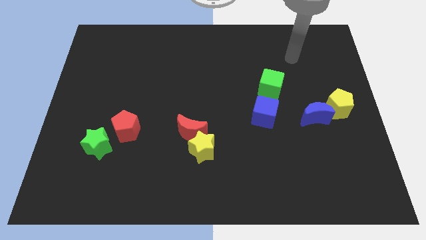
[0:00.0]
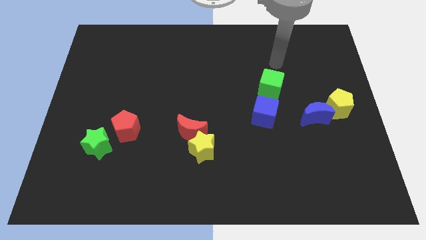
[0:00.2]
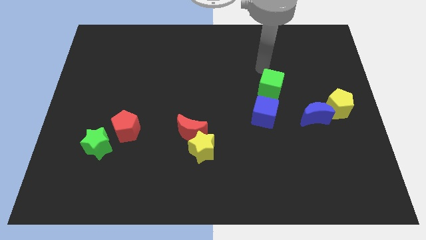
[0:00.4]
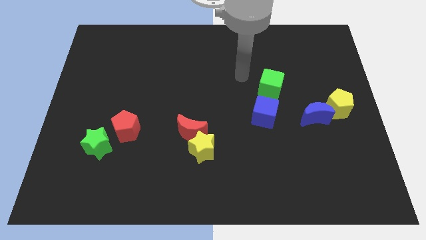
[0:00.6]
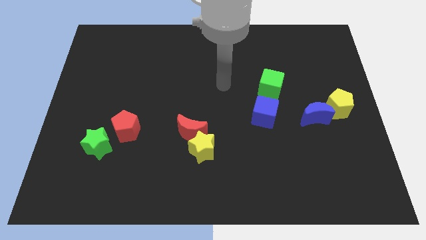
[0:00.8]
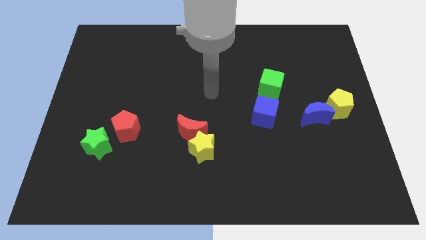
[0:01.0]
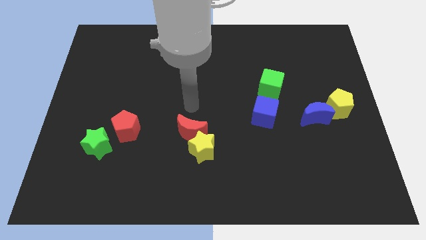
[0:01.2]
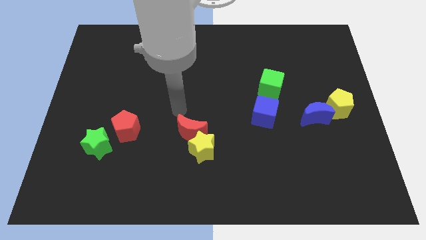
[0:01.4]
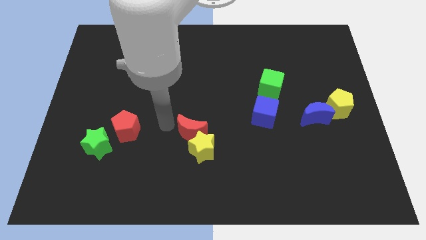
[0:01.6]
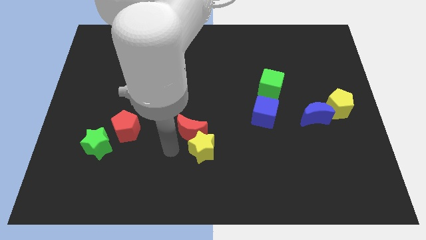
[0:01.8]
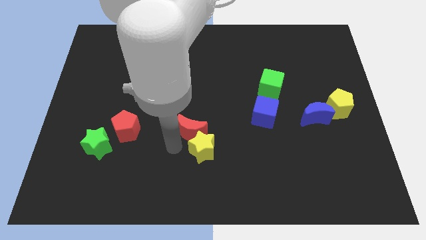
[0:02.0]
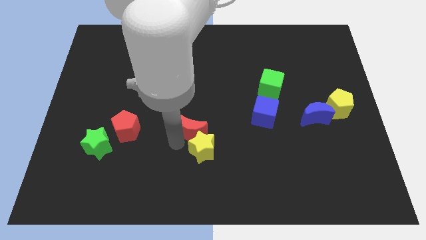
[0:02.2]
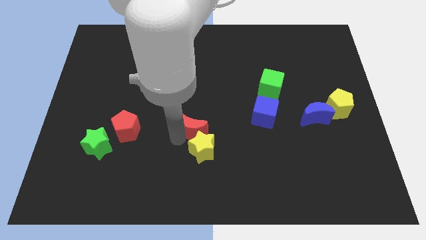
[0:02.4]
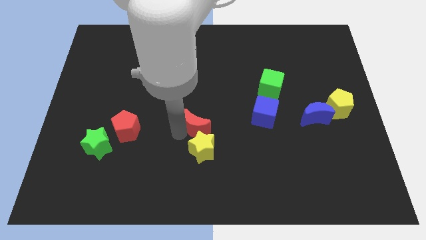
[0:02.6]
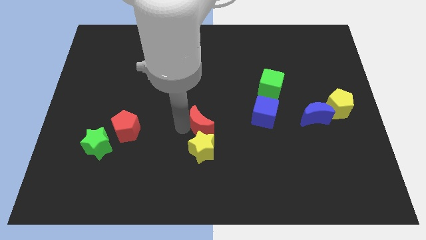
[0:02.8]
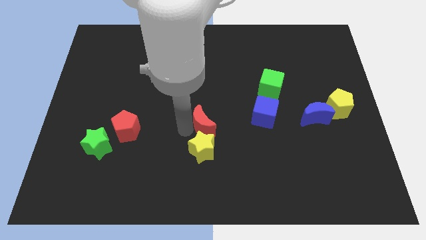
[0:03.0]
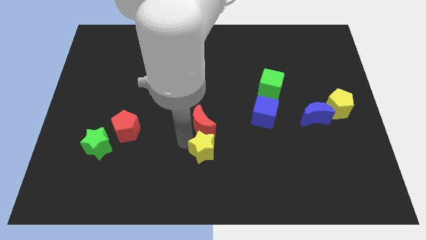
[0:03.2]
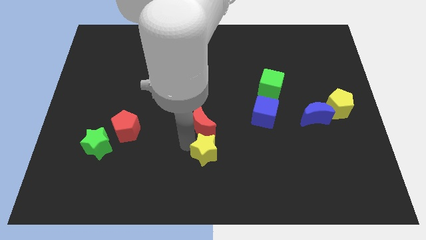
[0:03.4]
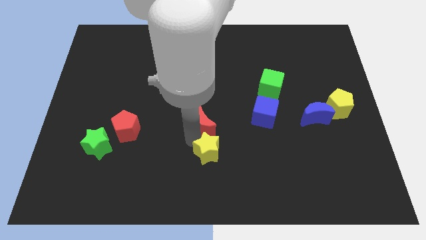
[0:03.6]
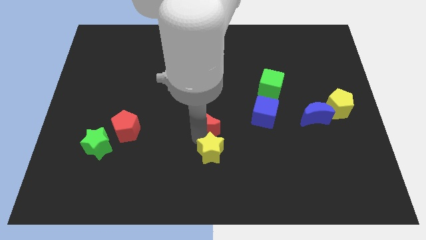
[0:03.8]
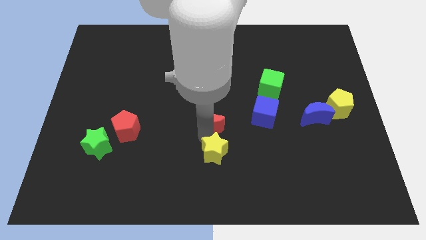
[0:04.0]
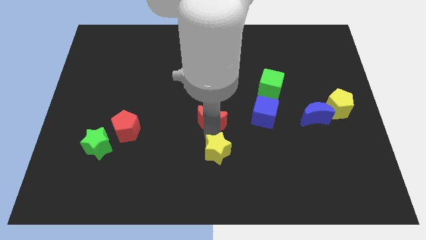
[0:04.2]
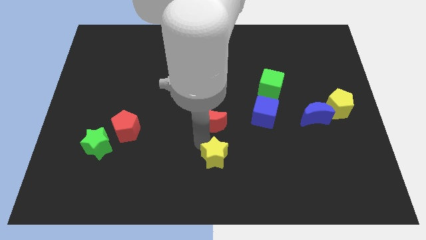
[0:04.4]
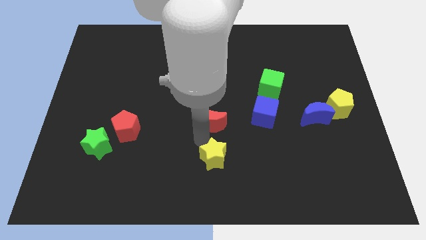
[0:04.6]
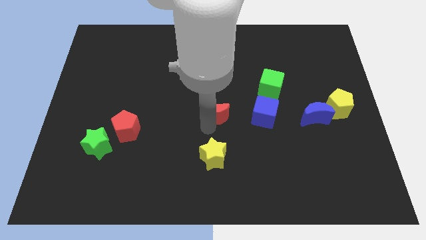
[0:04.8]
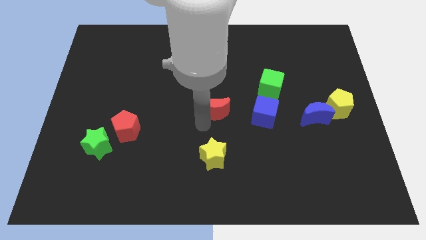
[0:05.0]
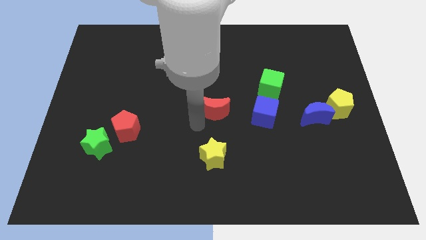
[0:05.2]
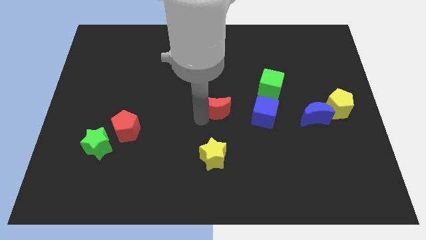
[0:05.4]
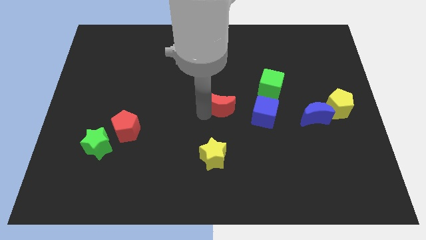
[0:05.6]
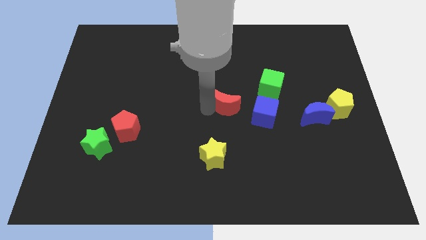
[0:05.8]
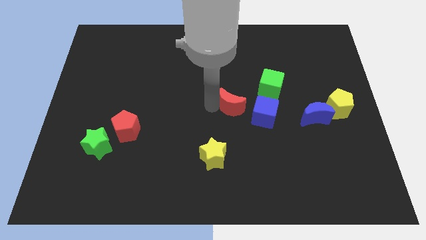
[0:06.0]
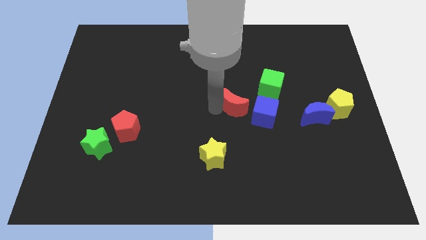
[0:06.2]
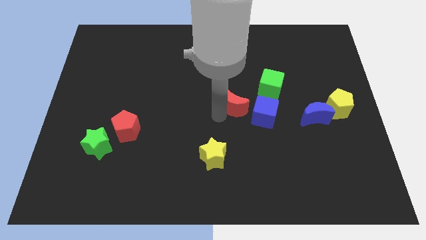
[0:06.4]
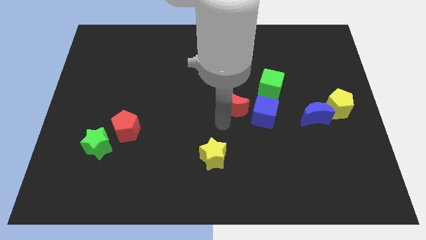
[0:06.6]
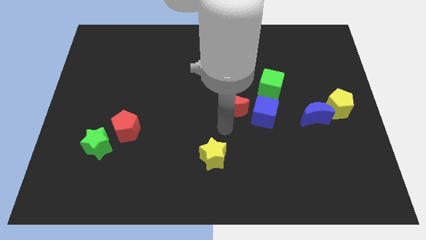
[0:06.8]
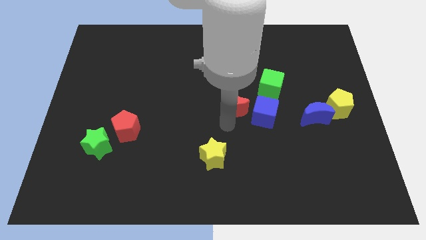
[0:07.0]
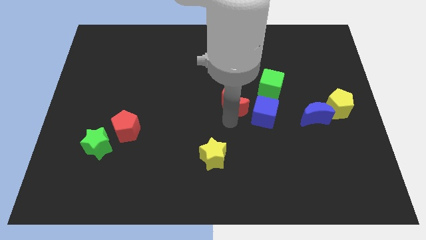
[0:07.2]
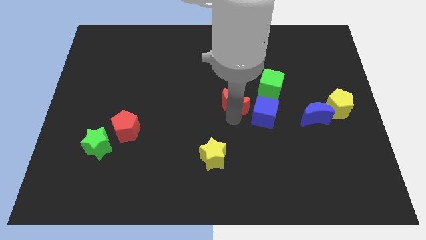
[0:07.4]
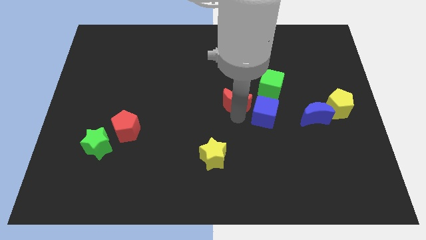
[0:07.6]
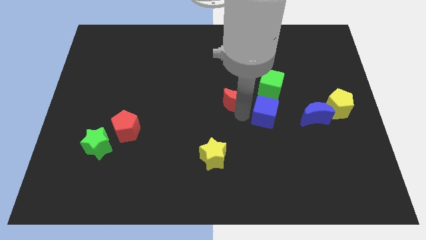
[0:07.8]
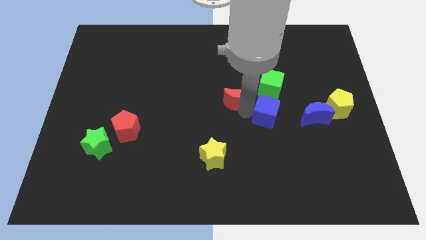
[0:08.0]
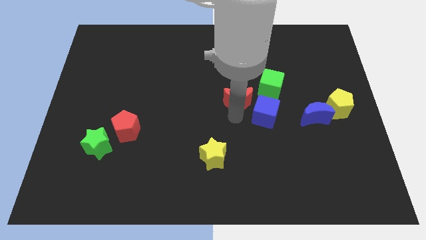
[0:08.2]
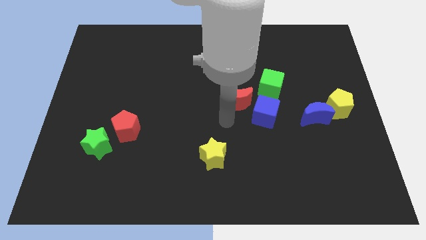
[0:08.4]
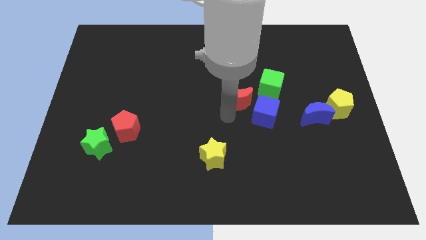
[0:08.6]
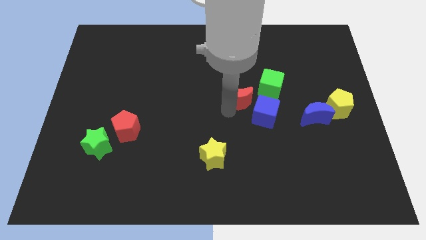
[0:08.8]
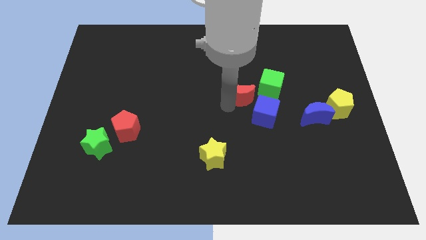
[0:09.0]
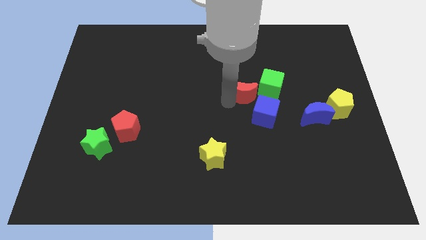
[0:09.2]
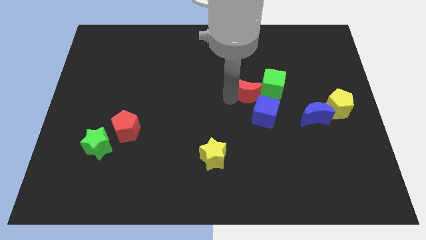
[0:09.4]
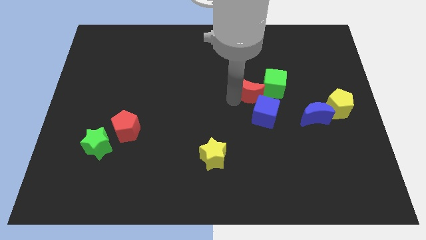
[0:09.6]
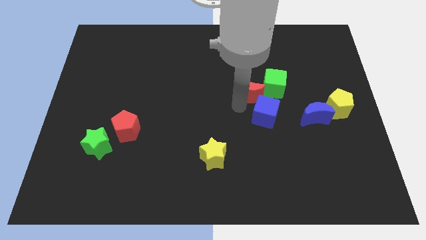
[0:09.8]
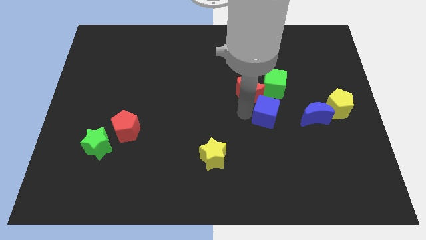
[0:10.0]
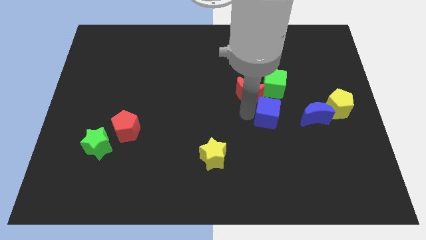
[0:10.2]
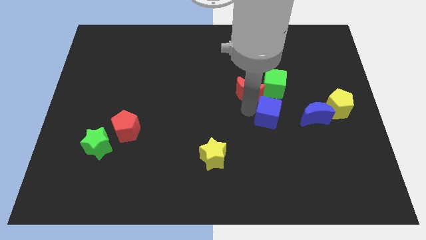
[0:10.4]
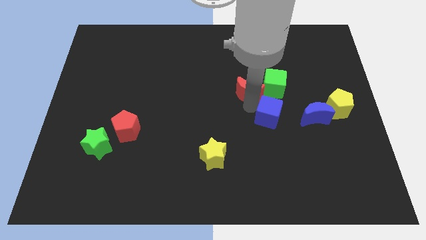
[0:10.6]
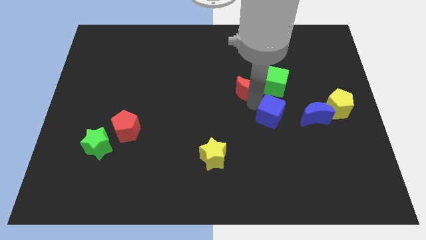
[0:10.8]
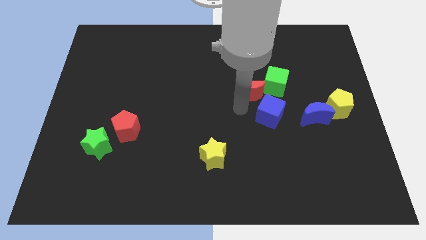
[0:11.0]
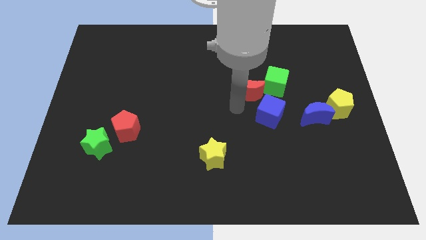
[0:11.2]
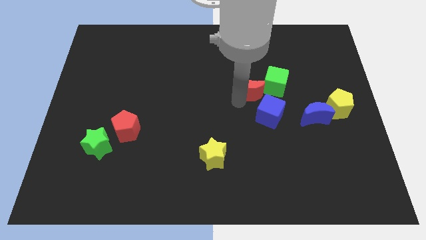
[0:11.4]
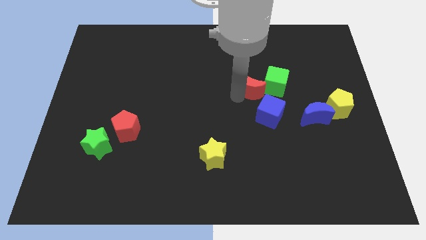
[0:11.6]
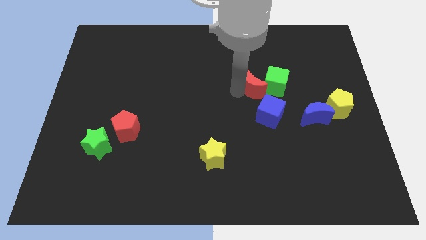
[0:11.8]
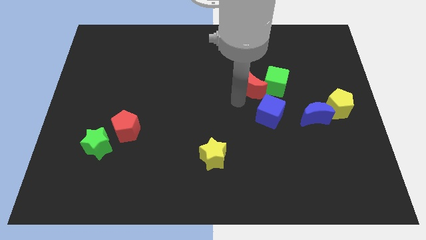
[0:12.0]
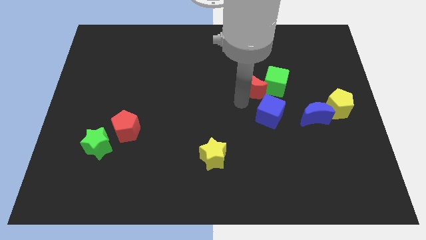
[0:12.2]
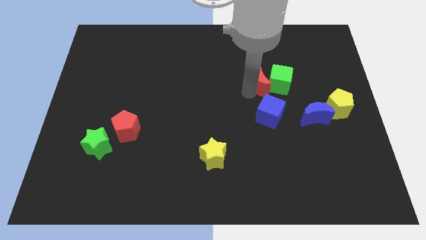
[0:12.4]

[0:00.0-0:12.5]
move the red moon up and then to the right

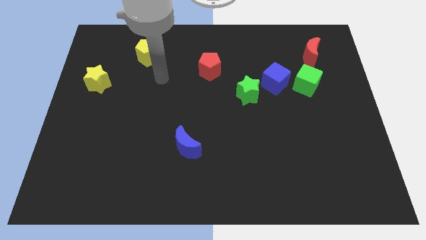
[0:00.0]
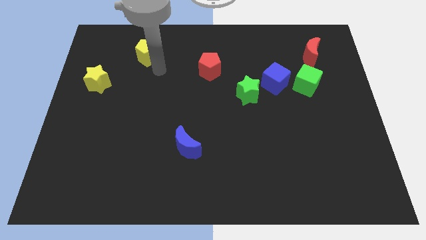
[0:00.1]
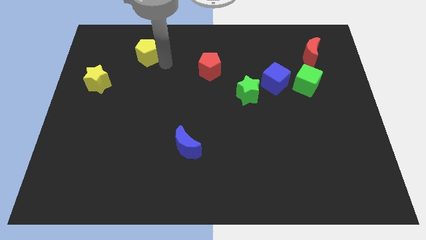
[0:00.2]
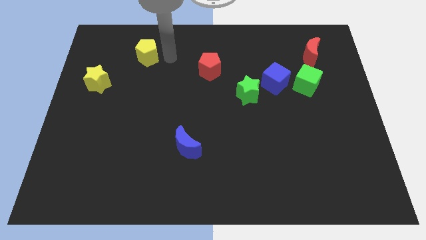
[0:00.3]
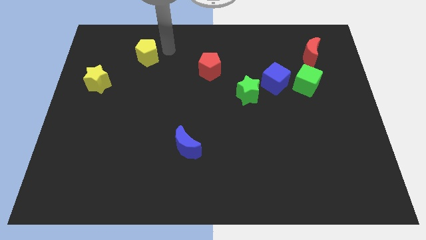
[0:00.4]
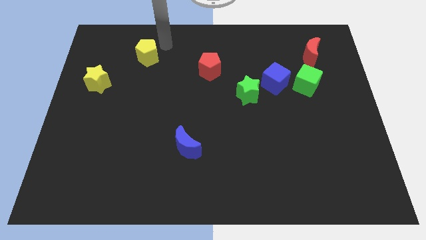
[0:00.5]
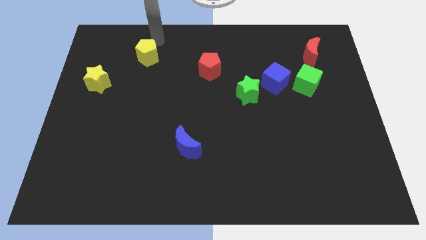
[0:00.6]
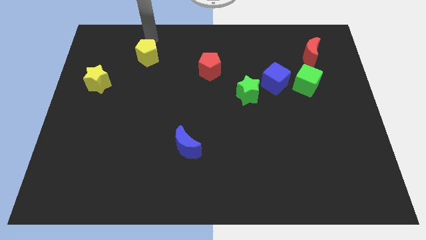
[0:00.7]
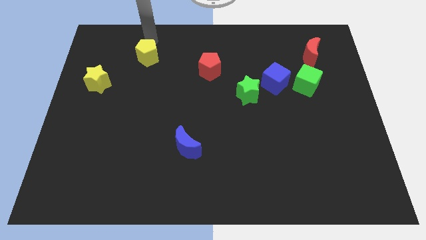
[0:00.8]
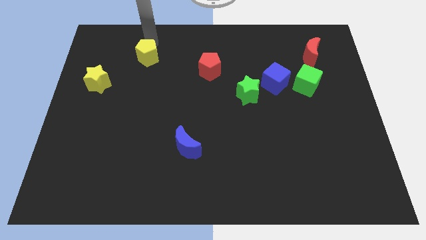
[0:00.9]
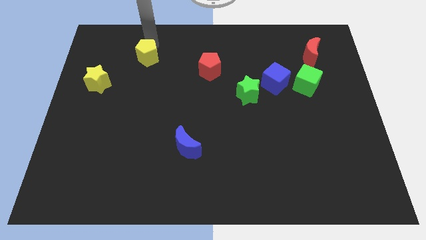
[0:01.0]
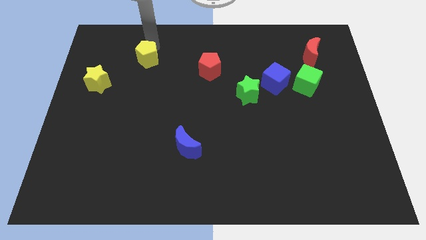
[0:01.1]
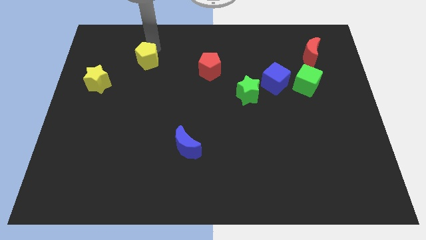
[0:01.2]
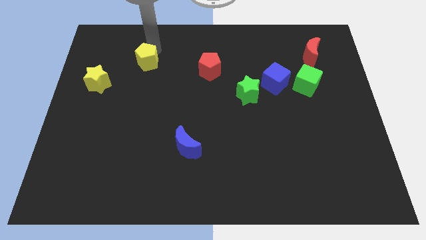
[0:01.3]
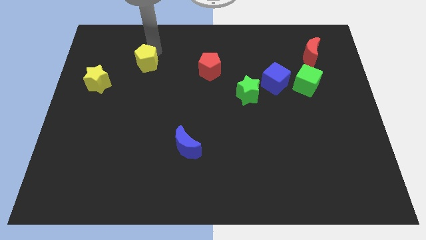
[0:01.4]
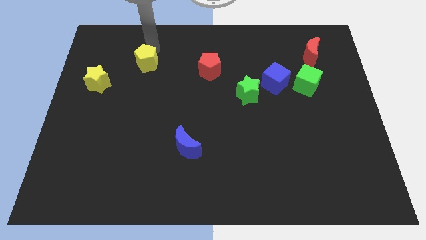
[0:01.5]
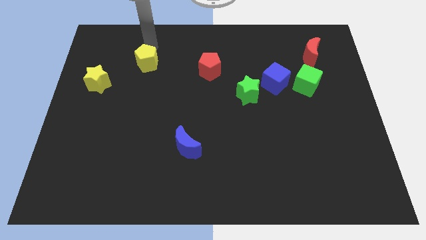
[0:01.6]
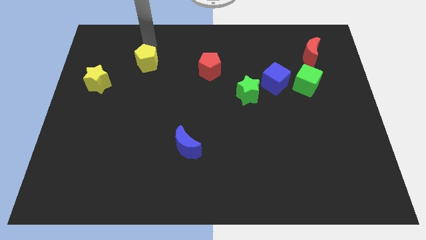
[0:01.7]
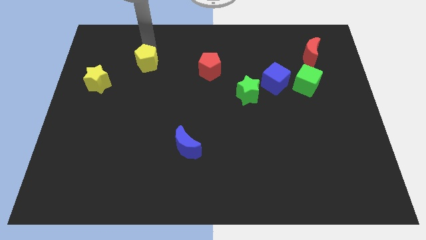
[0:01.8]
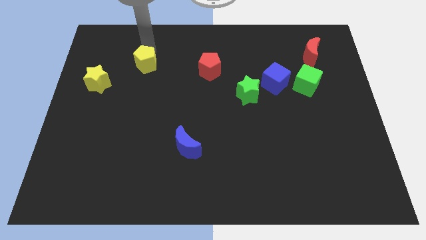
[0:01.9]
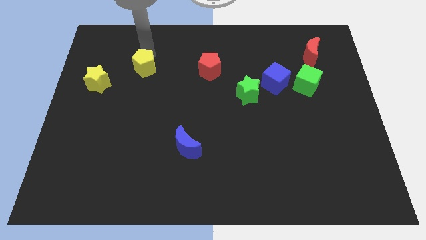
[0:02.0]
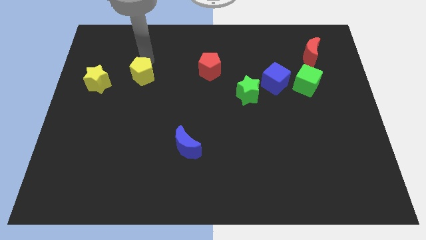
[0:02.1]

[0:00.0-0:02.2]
move the yellow pentagon a little downwards
